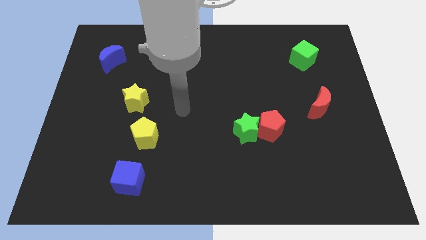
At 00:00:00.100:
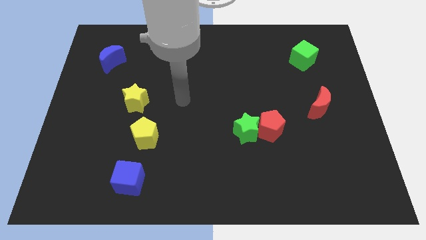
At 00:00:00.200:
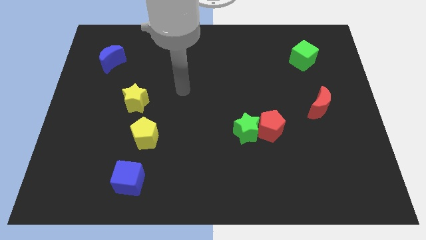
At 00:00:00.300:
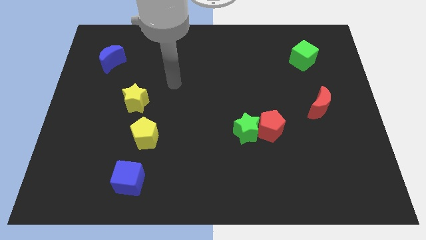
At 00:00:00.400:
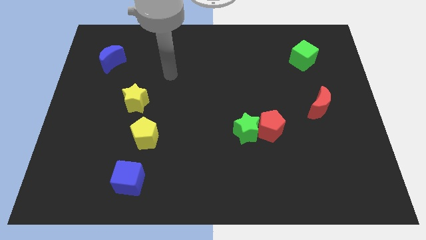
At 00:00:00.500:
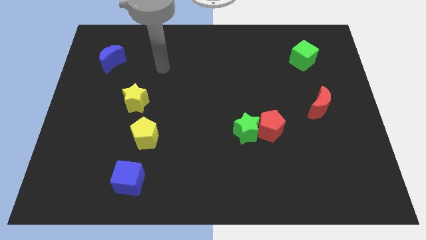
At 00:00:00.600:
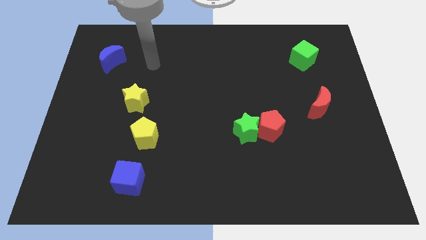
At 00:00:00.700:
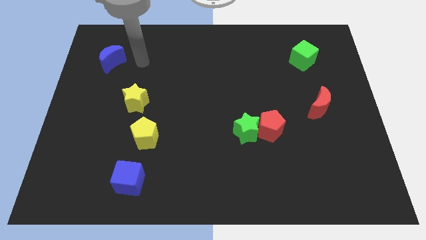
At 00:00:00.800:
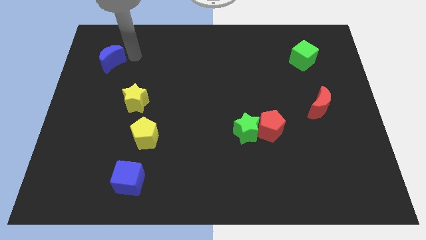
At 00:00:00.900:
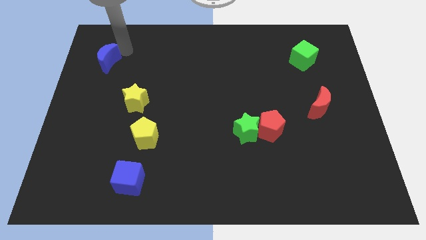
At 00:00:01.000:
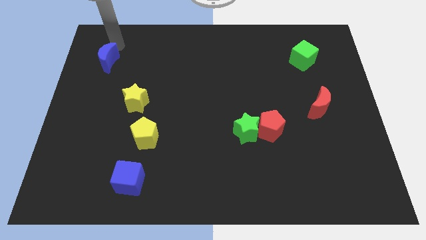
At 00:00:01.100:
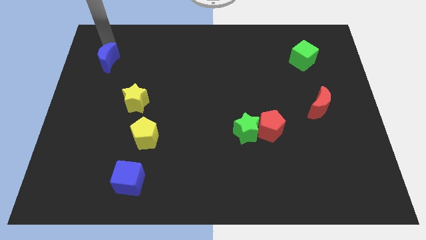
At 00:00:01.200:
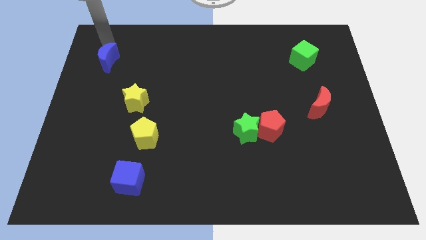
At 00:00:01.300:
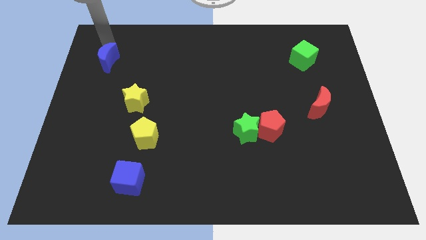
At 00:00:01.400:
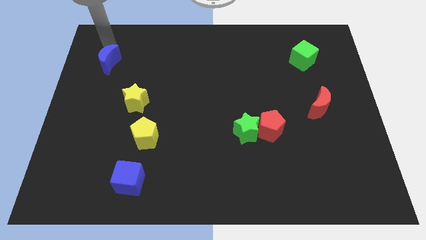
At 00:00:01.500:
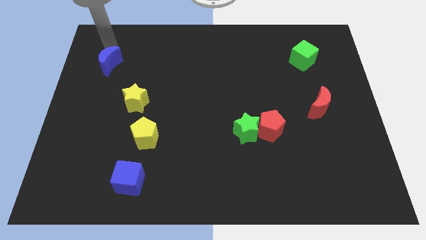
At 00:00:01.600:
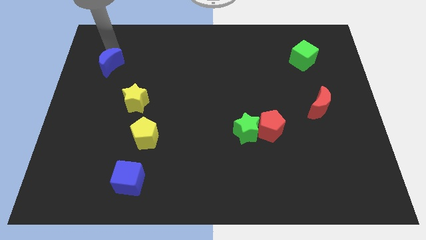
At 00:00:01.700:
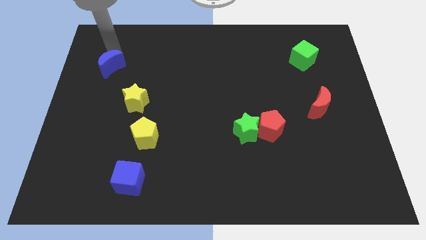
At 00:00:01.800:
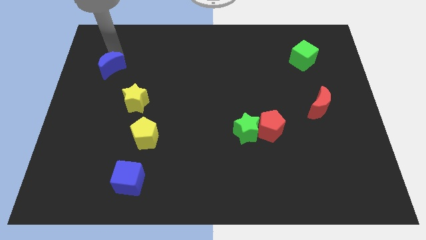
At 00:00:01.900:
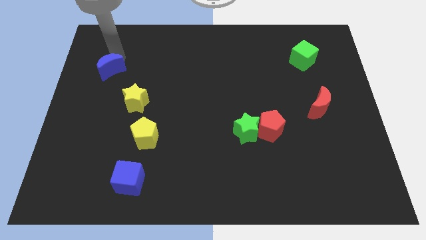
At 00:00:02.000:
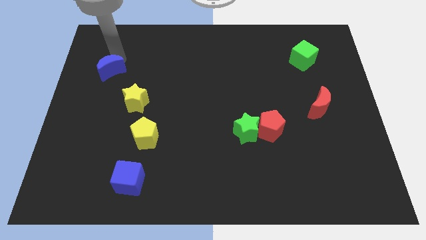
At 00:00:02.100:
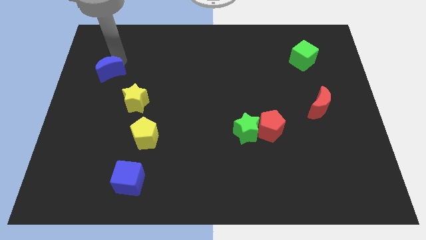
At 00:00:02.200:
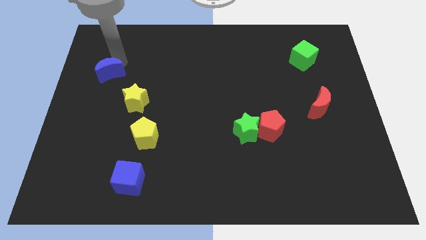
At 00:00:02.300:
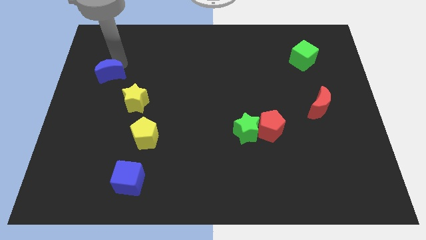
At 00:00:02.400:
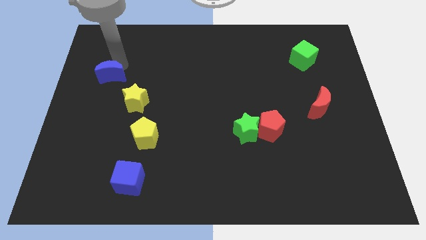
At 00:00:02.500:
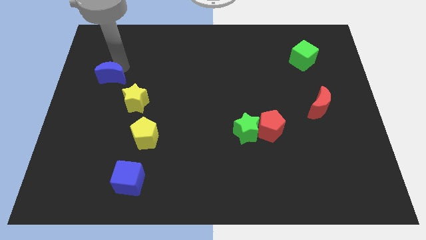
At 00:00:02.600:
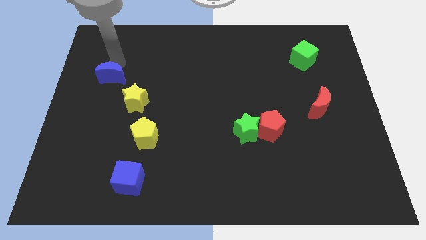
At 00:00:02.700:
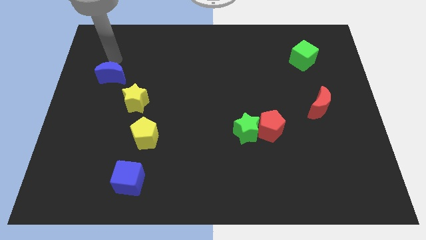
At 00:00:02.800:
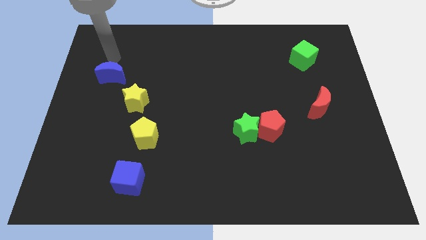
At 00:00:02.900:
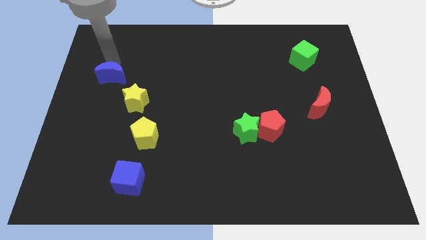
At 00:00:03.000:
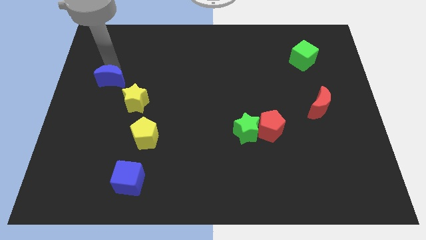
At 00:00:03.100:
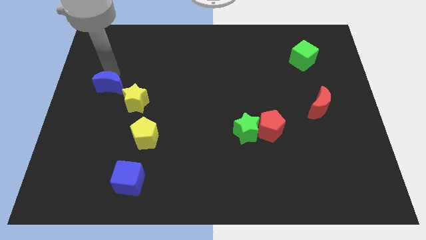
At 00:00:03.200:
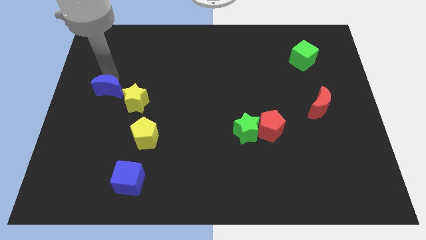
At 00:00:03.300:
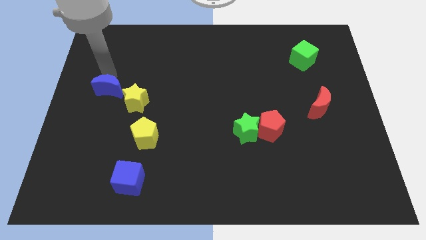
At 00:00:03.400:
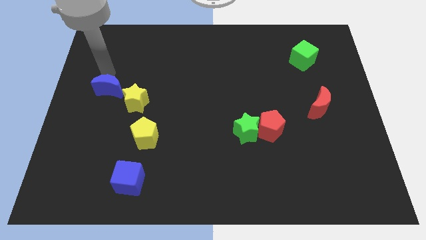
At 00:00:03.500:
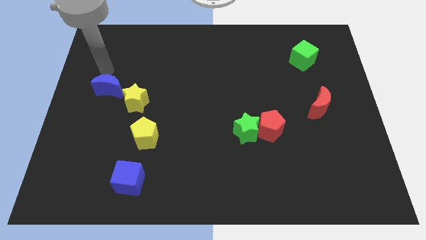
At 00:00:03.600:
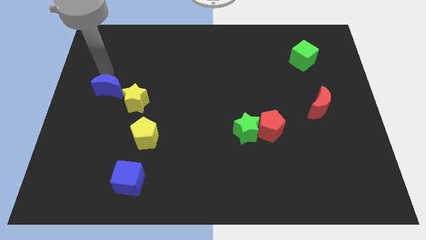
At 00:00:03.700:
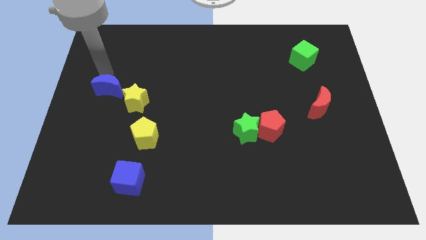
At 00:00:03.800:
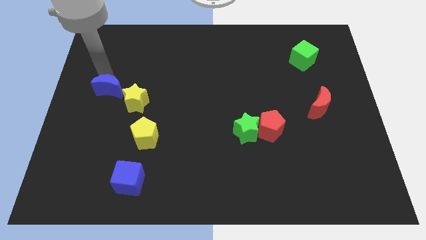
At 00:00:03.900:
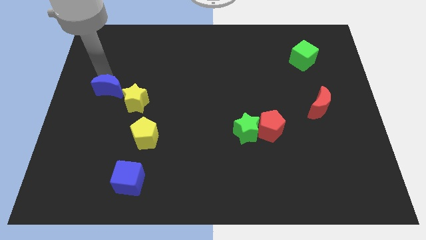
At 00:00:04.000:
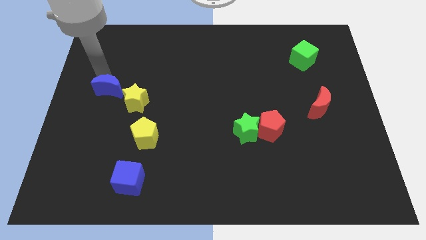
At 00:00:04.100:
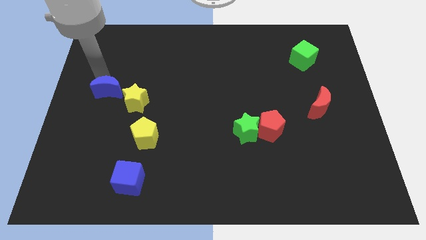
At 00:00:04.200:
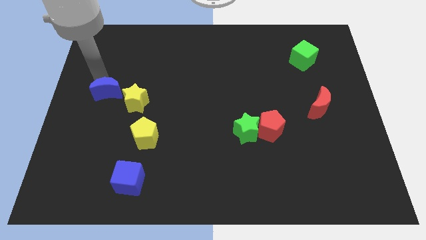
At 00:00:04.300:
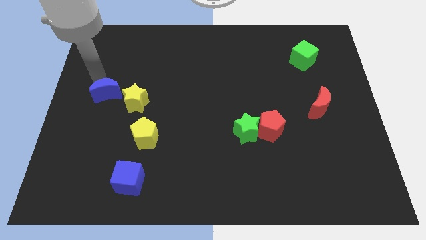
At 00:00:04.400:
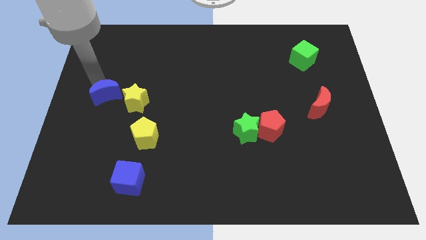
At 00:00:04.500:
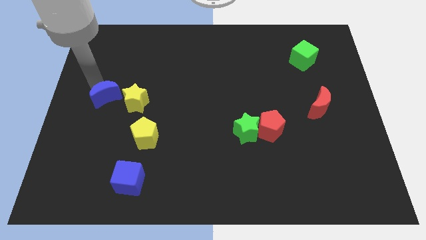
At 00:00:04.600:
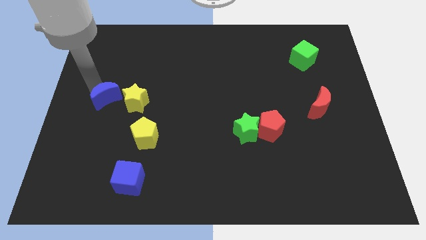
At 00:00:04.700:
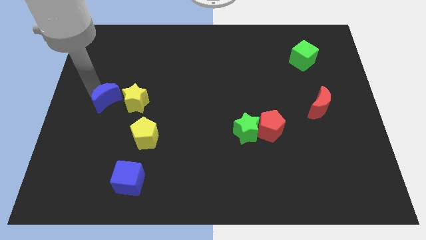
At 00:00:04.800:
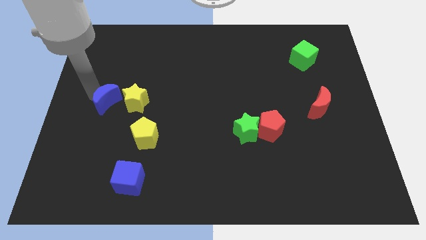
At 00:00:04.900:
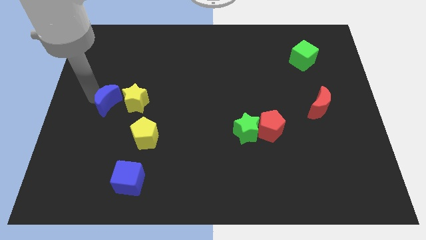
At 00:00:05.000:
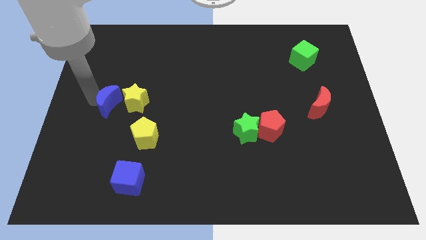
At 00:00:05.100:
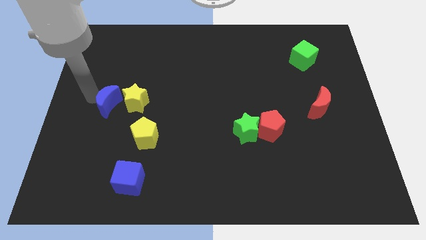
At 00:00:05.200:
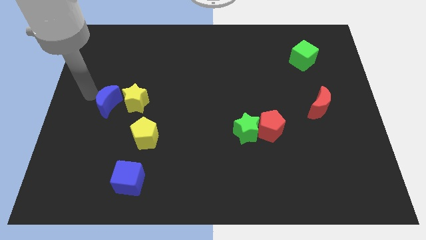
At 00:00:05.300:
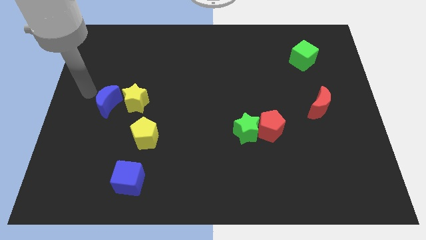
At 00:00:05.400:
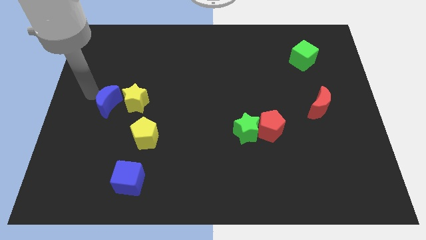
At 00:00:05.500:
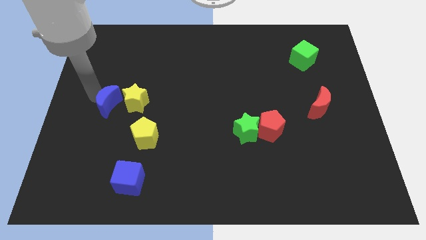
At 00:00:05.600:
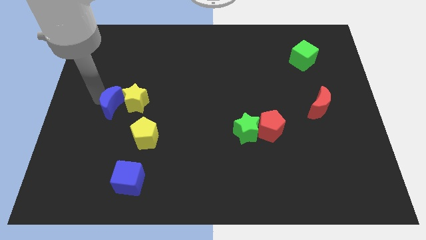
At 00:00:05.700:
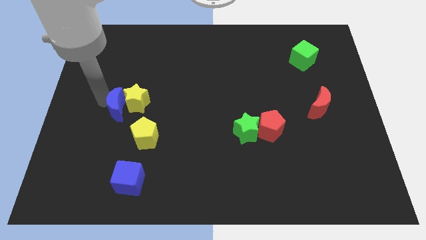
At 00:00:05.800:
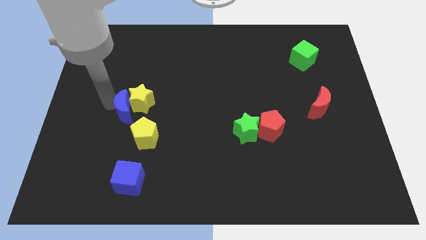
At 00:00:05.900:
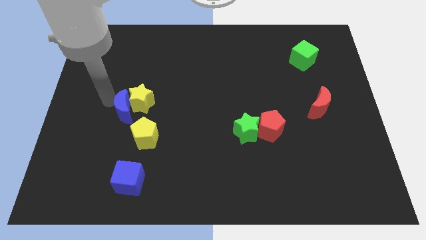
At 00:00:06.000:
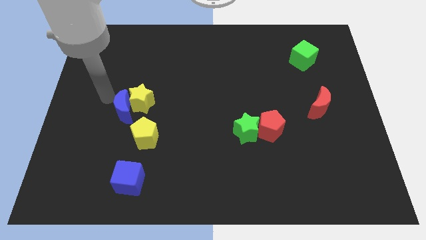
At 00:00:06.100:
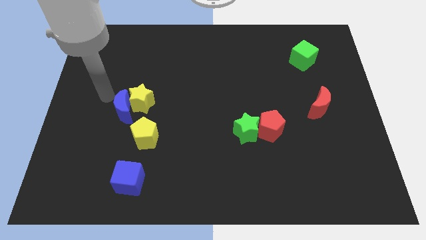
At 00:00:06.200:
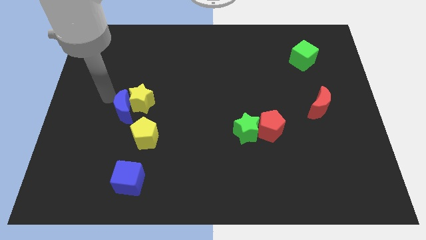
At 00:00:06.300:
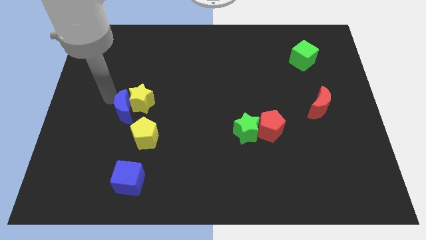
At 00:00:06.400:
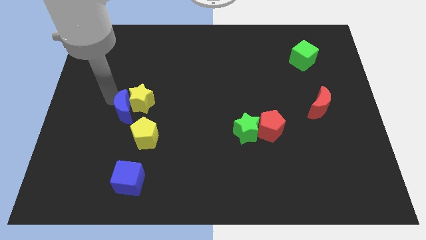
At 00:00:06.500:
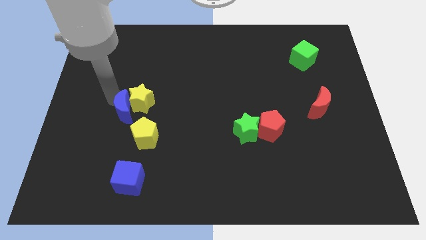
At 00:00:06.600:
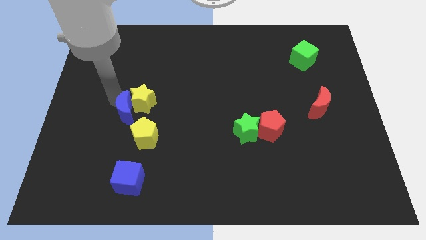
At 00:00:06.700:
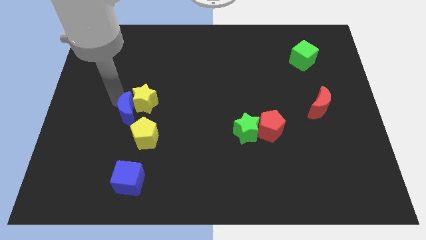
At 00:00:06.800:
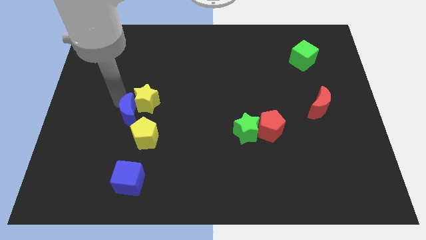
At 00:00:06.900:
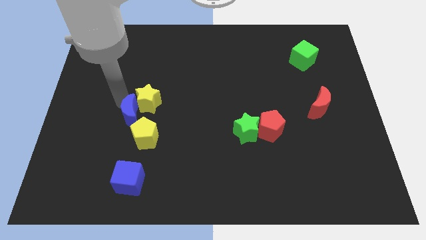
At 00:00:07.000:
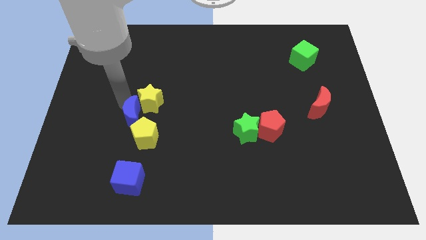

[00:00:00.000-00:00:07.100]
put the blue moon above the blue cube

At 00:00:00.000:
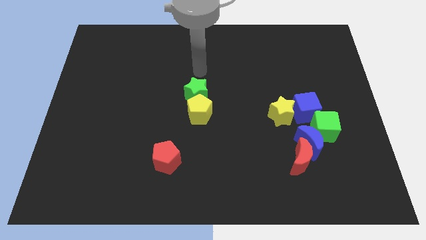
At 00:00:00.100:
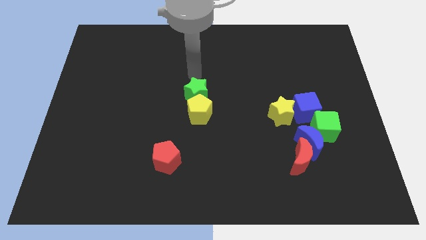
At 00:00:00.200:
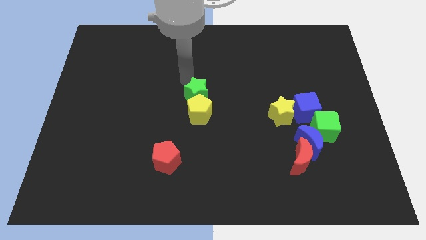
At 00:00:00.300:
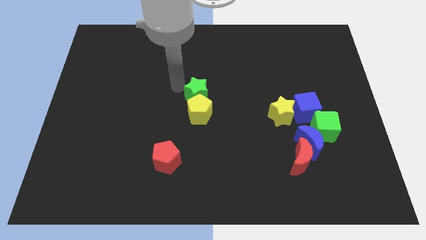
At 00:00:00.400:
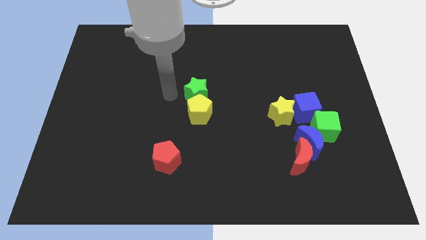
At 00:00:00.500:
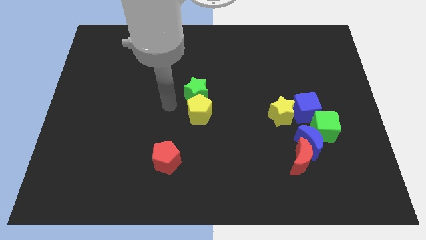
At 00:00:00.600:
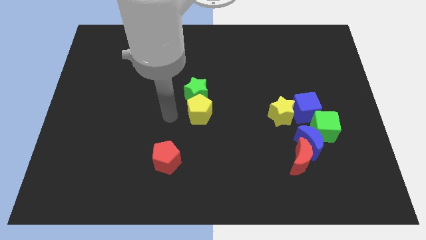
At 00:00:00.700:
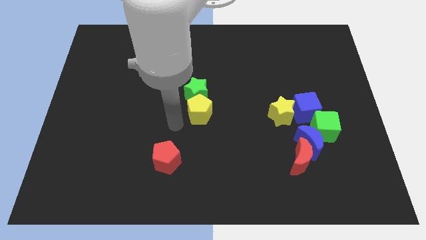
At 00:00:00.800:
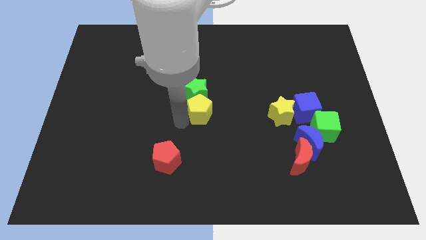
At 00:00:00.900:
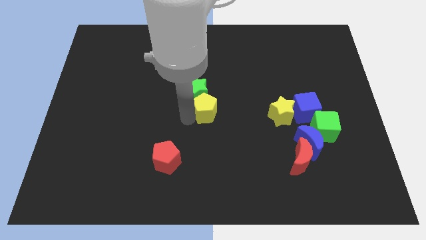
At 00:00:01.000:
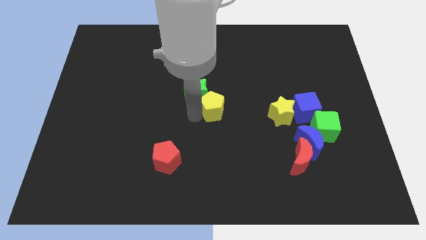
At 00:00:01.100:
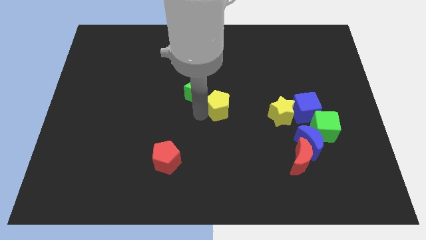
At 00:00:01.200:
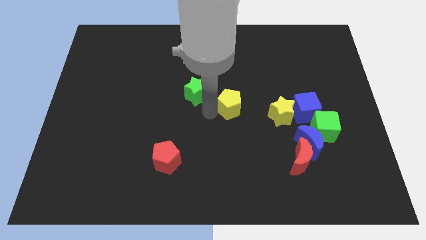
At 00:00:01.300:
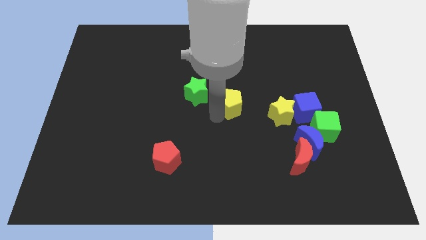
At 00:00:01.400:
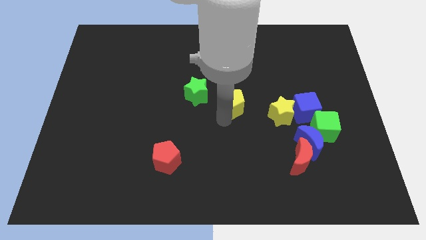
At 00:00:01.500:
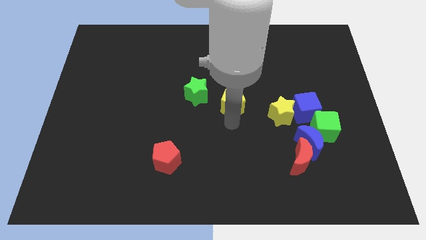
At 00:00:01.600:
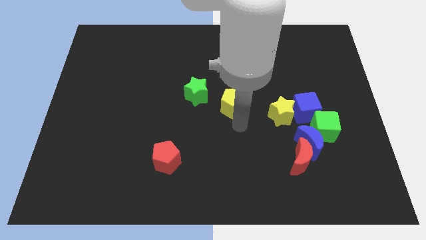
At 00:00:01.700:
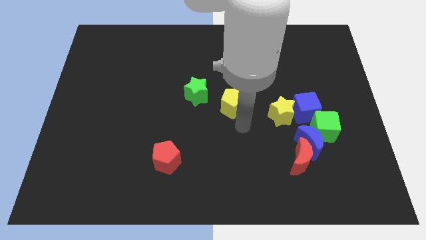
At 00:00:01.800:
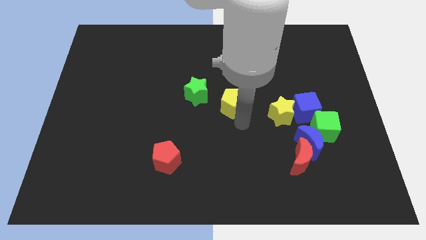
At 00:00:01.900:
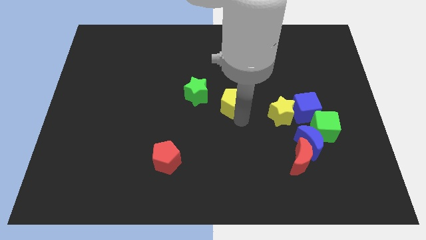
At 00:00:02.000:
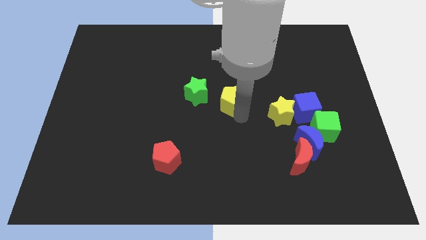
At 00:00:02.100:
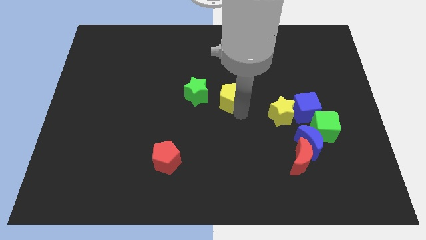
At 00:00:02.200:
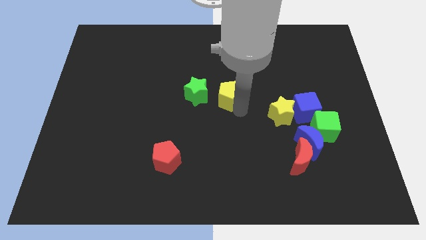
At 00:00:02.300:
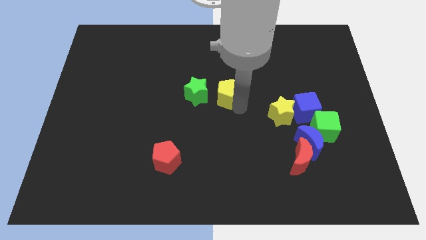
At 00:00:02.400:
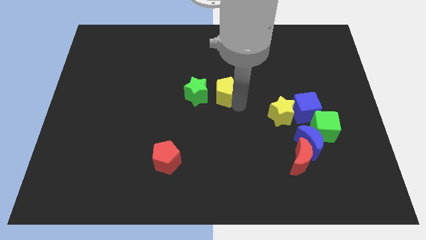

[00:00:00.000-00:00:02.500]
put the yellow pentagon to the top right side of the green star
